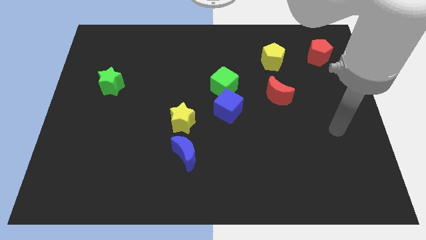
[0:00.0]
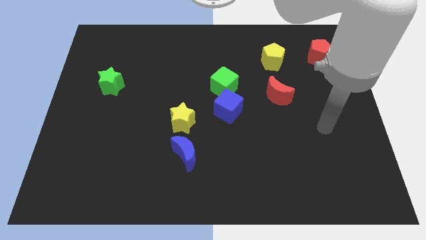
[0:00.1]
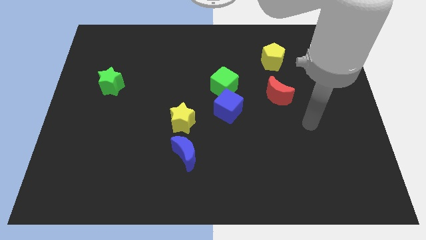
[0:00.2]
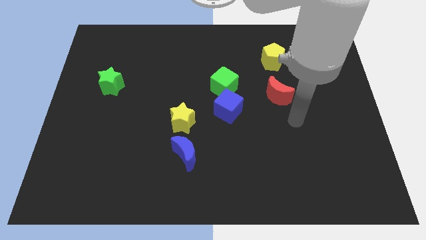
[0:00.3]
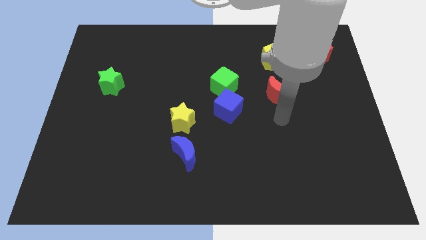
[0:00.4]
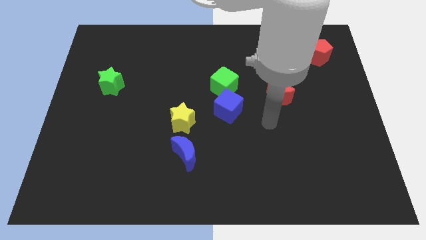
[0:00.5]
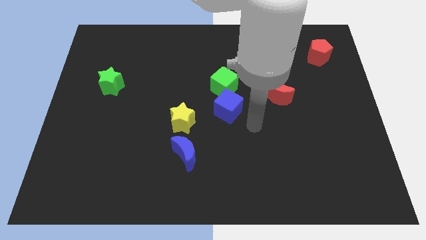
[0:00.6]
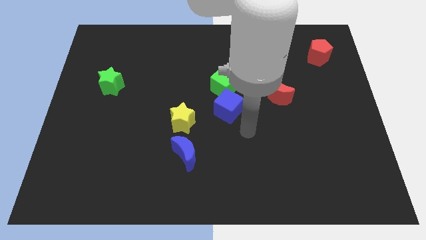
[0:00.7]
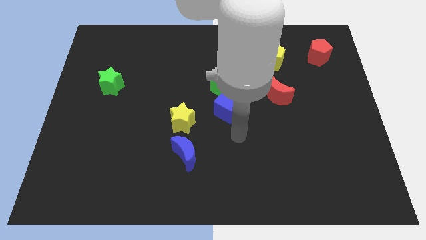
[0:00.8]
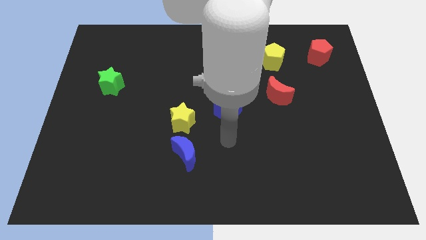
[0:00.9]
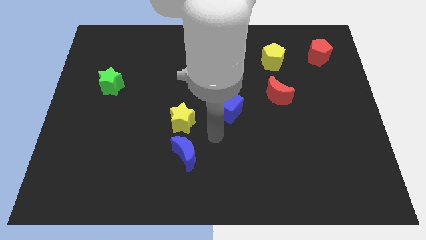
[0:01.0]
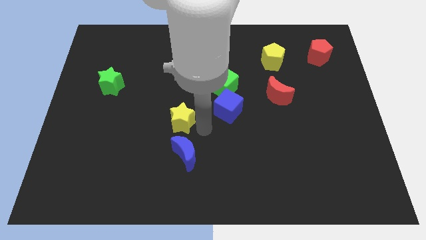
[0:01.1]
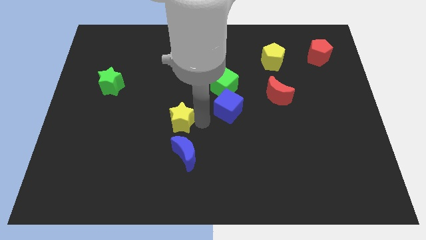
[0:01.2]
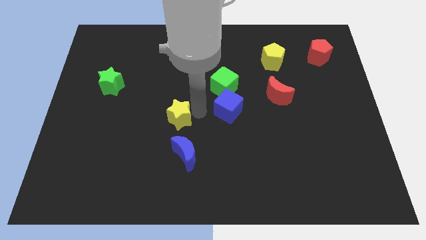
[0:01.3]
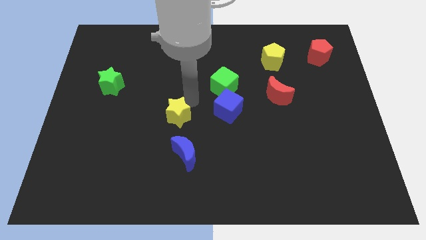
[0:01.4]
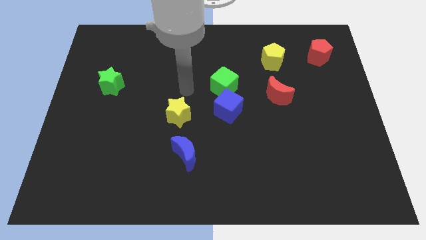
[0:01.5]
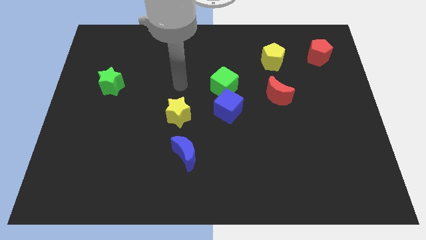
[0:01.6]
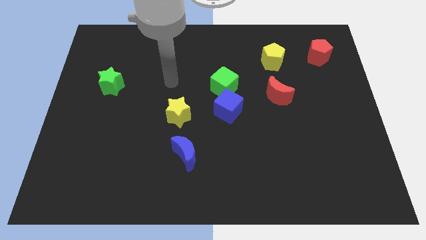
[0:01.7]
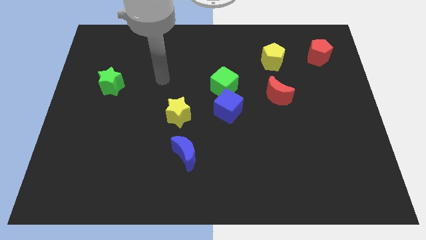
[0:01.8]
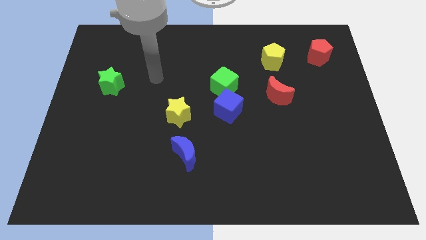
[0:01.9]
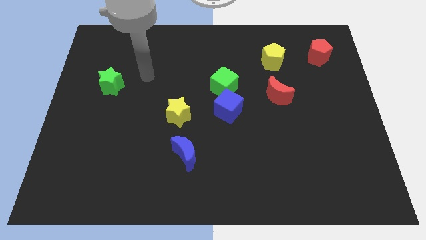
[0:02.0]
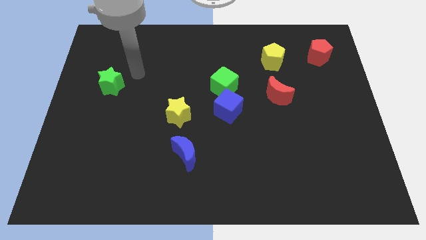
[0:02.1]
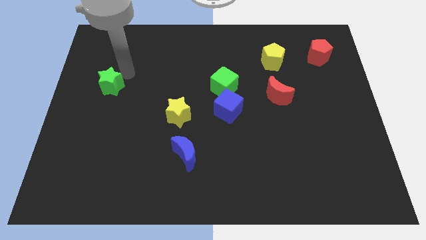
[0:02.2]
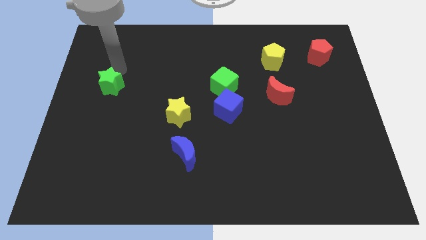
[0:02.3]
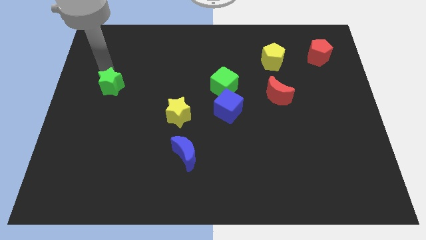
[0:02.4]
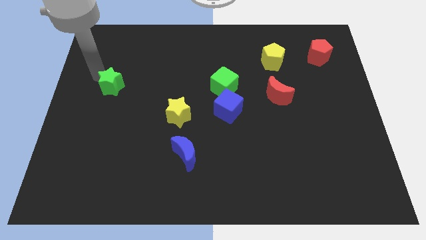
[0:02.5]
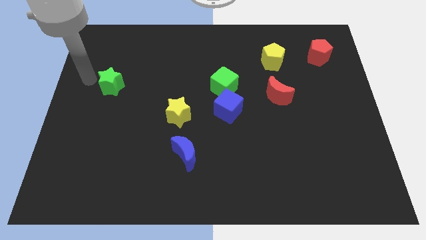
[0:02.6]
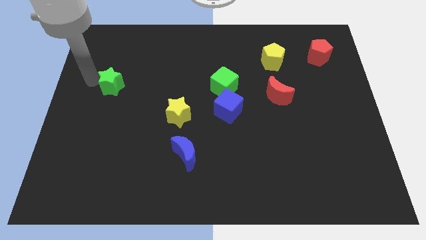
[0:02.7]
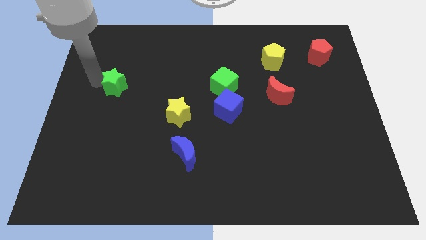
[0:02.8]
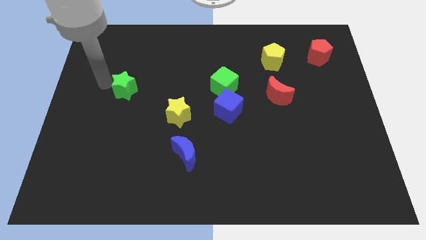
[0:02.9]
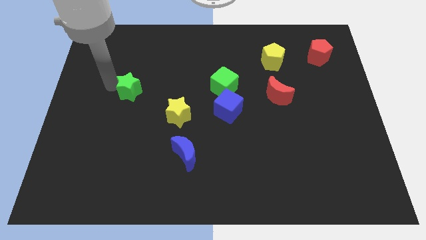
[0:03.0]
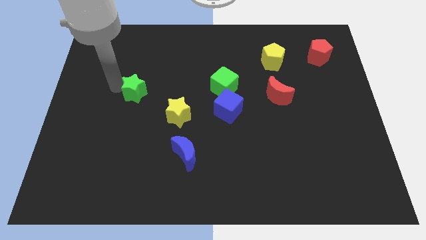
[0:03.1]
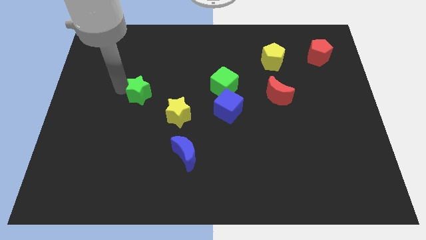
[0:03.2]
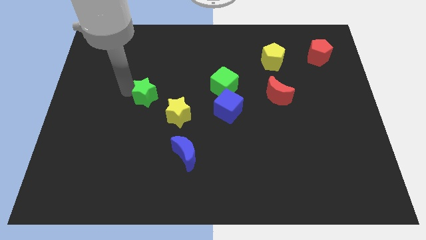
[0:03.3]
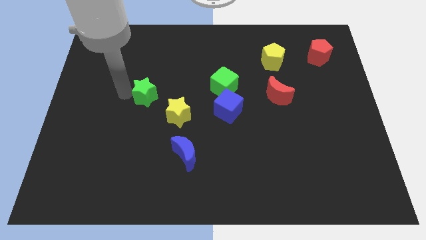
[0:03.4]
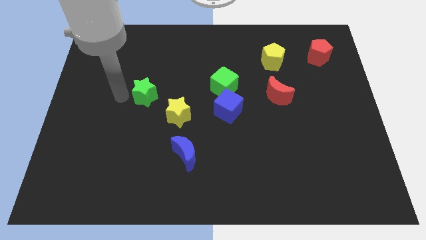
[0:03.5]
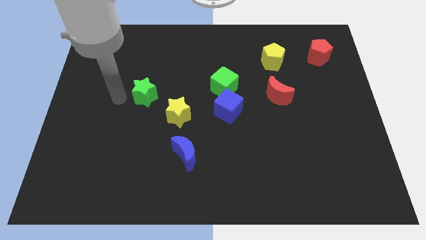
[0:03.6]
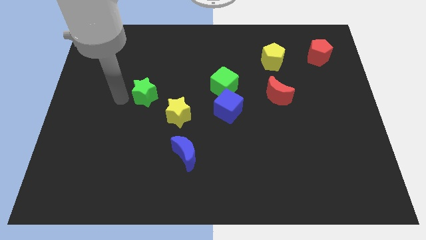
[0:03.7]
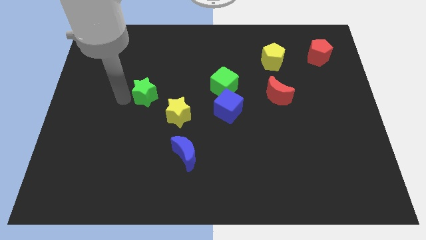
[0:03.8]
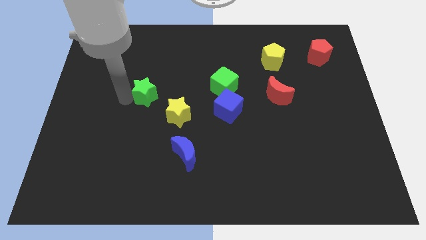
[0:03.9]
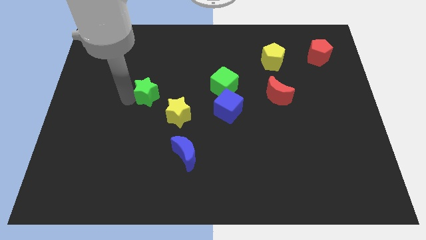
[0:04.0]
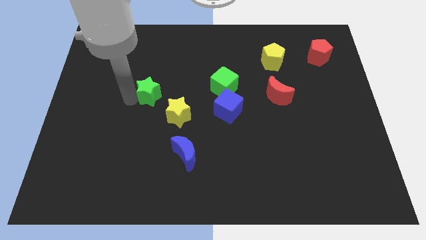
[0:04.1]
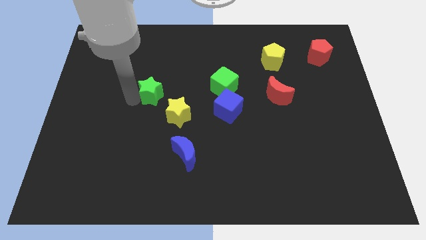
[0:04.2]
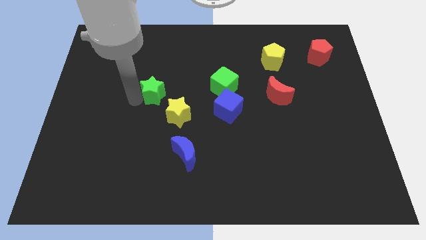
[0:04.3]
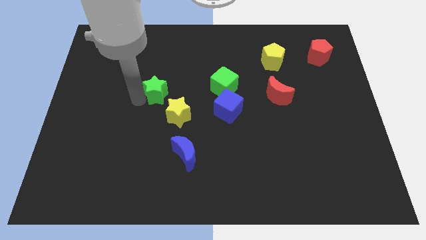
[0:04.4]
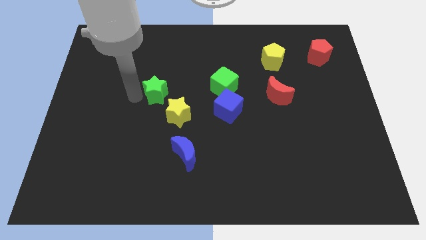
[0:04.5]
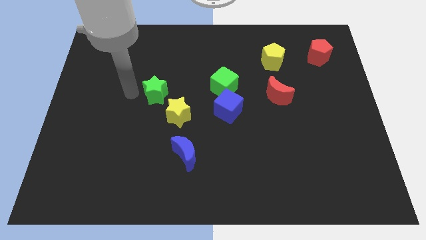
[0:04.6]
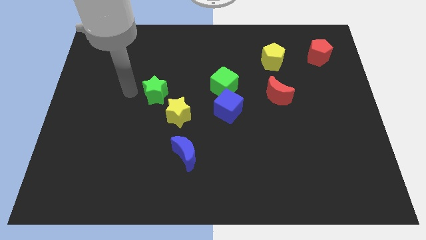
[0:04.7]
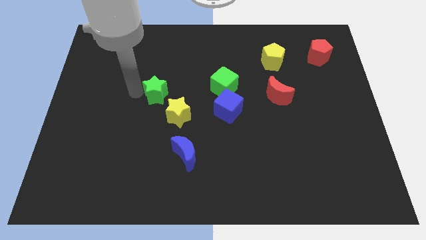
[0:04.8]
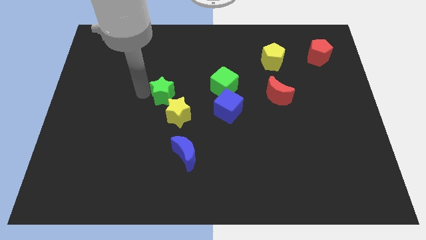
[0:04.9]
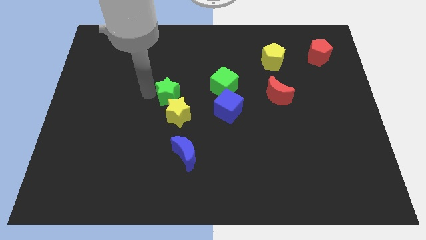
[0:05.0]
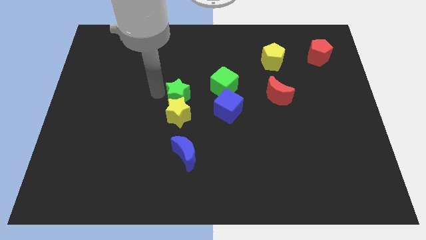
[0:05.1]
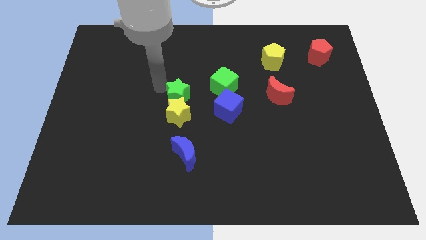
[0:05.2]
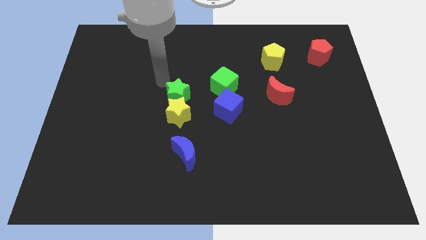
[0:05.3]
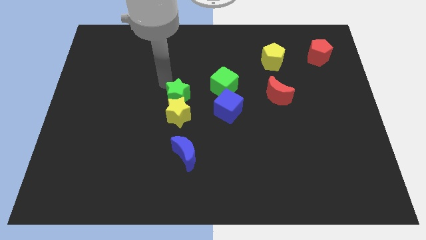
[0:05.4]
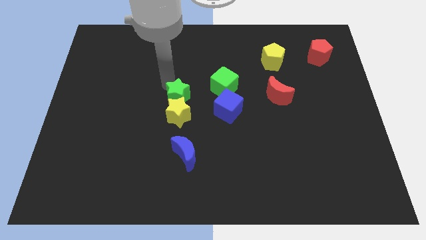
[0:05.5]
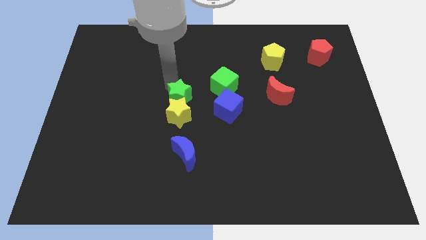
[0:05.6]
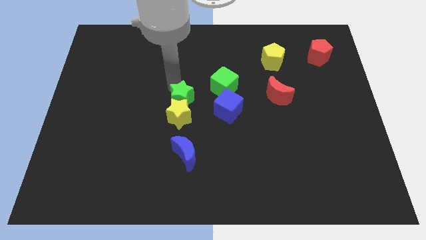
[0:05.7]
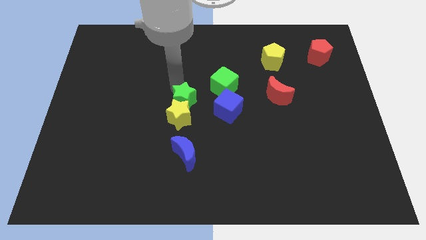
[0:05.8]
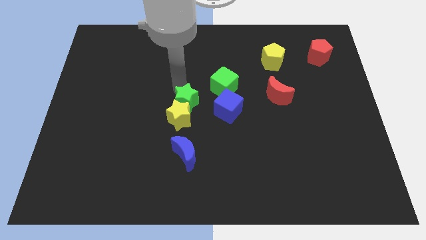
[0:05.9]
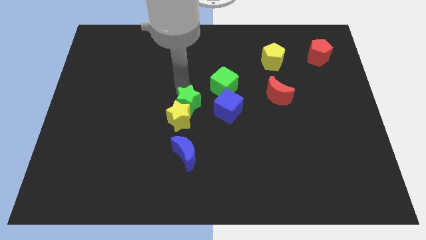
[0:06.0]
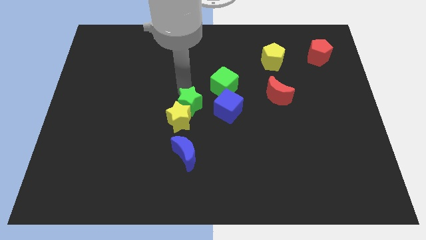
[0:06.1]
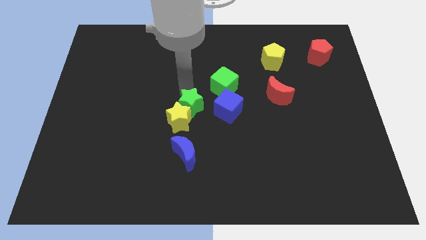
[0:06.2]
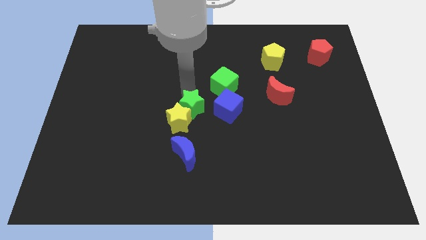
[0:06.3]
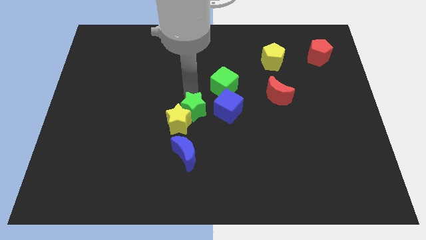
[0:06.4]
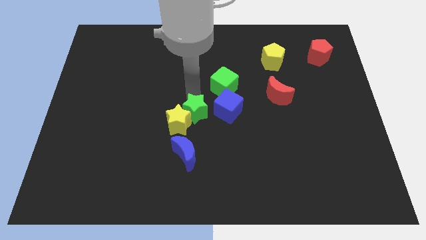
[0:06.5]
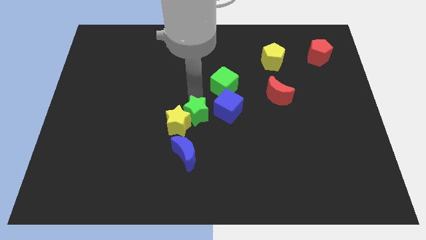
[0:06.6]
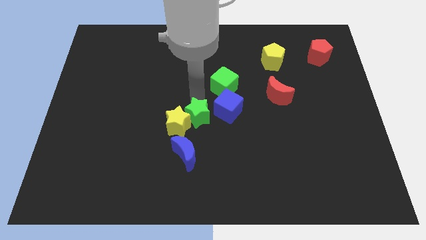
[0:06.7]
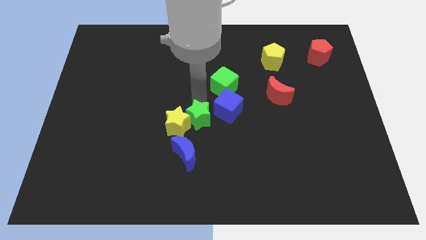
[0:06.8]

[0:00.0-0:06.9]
move the green star downwards and to the right

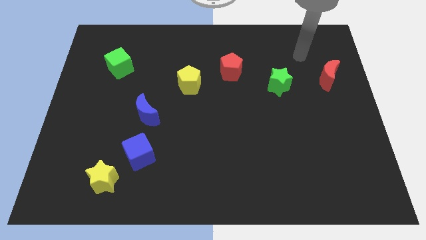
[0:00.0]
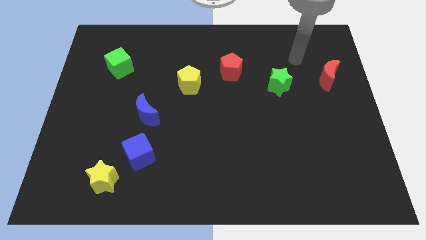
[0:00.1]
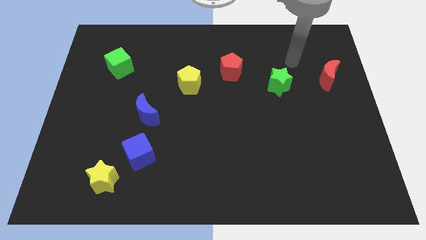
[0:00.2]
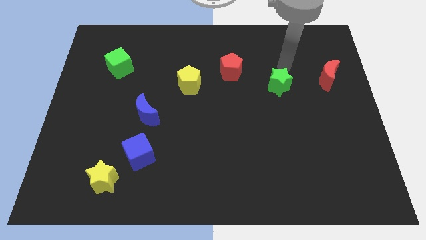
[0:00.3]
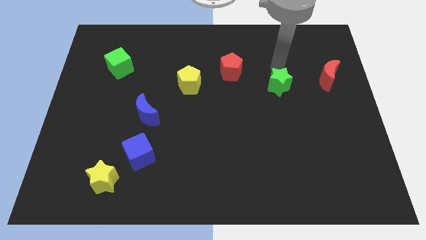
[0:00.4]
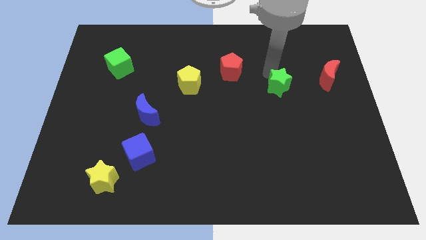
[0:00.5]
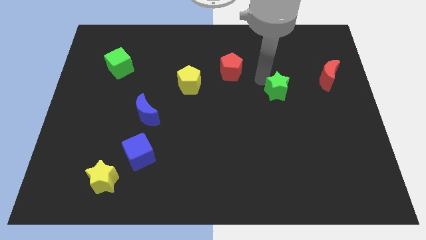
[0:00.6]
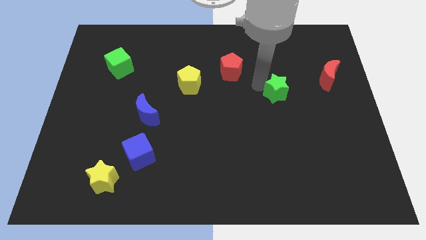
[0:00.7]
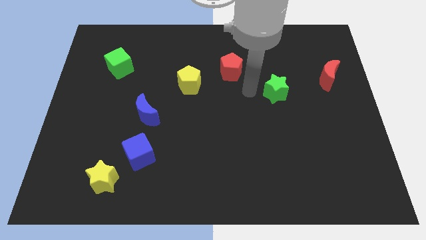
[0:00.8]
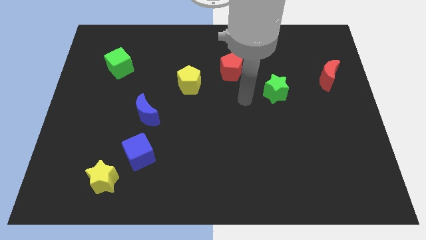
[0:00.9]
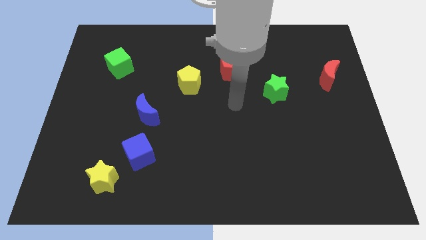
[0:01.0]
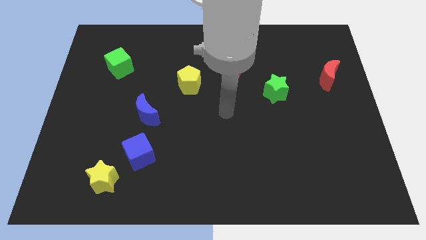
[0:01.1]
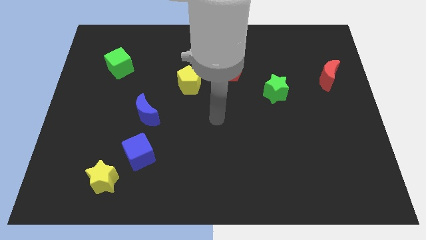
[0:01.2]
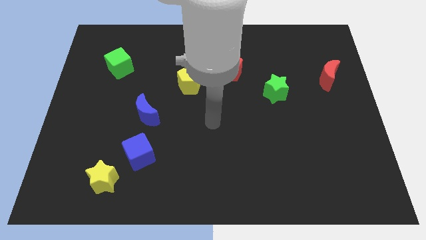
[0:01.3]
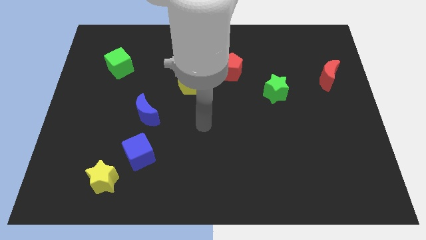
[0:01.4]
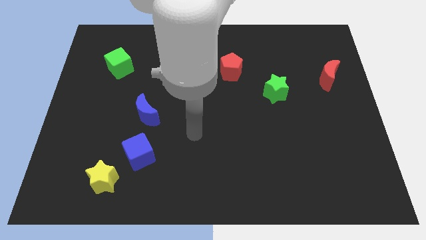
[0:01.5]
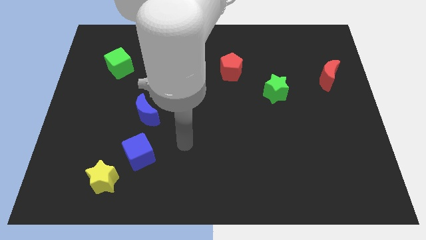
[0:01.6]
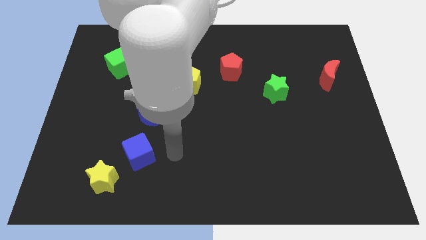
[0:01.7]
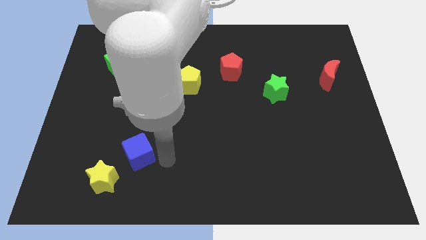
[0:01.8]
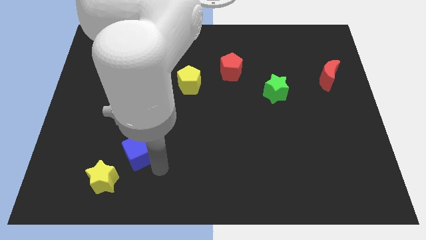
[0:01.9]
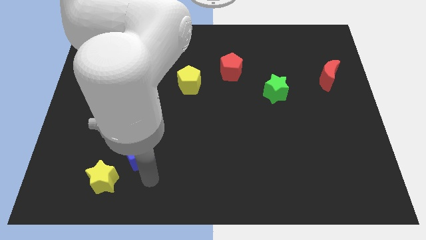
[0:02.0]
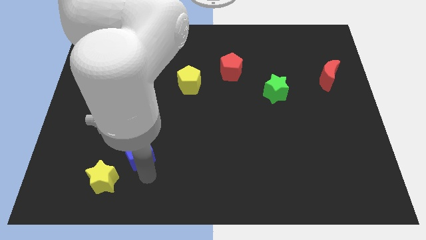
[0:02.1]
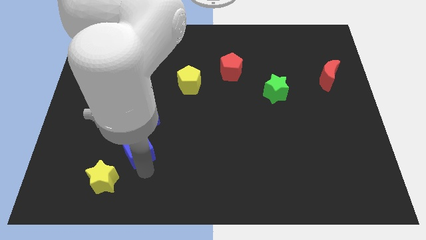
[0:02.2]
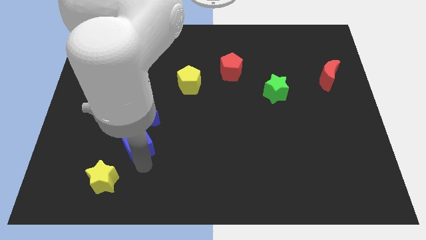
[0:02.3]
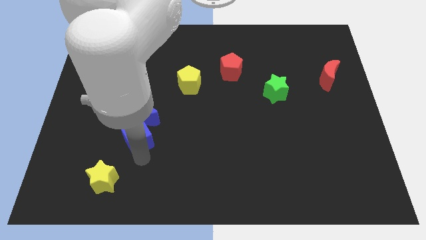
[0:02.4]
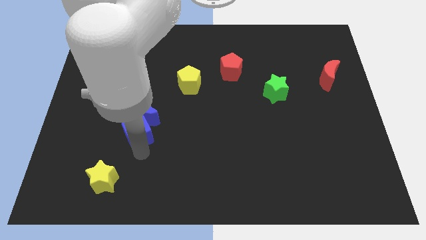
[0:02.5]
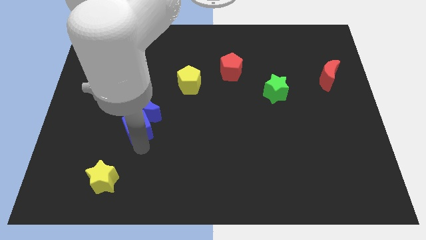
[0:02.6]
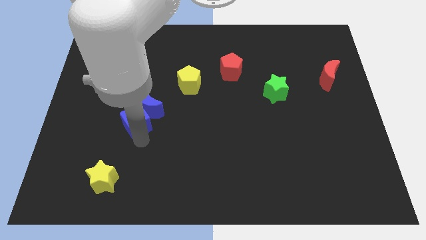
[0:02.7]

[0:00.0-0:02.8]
slide the blue cube a bit up
